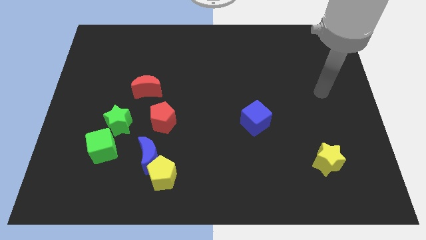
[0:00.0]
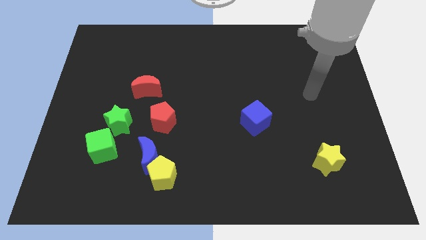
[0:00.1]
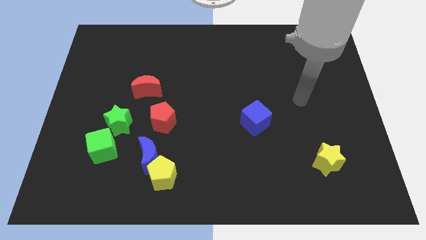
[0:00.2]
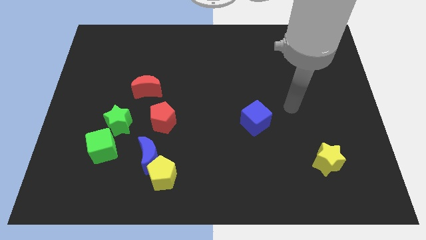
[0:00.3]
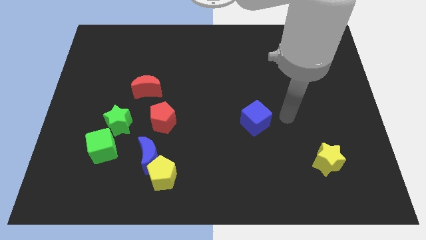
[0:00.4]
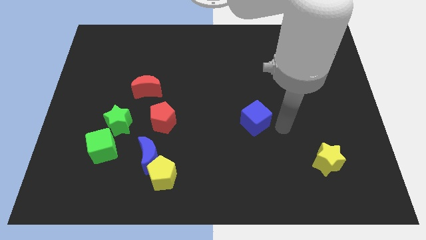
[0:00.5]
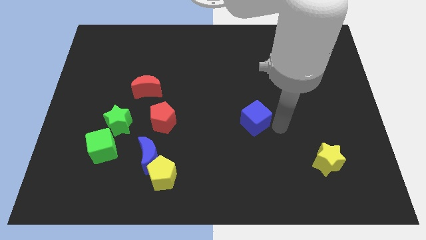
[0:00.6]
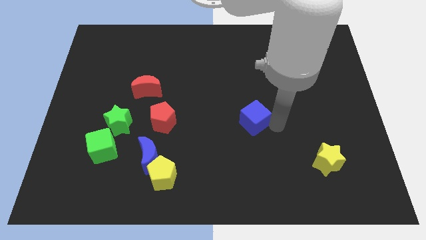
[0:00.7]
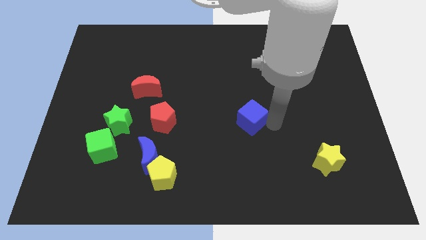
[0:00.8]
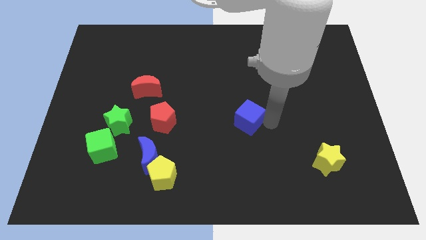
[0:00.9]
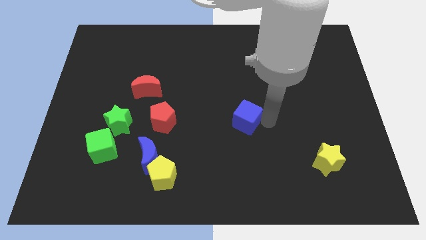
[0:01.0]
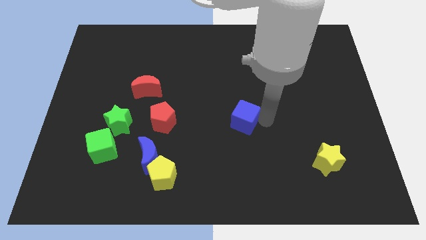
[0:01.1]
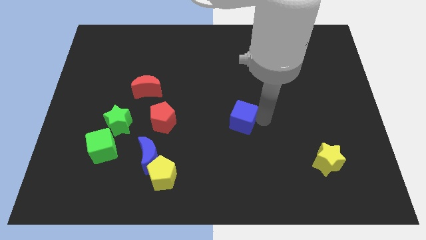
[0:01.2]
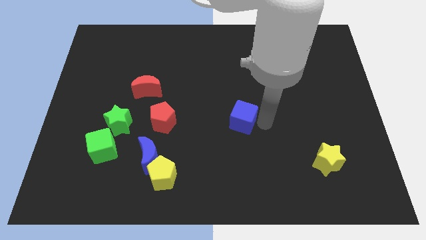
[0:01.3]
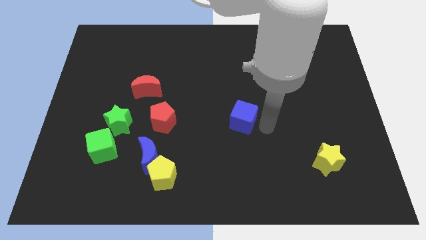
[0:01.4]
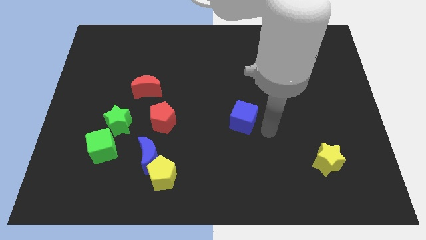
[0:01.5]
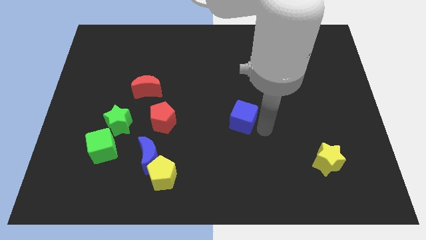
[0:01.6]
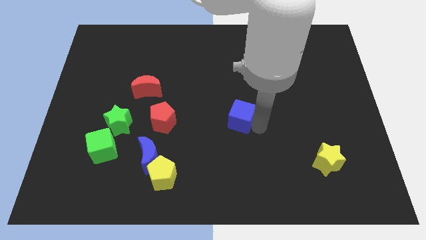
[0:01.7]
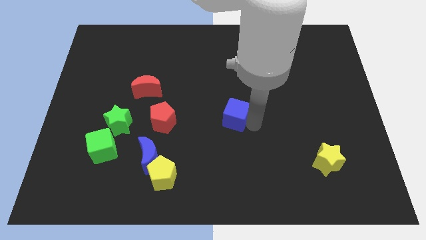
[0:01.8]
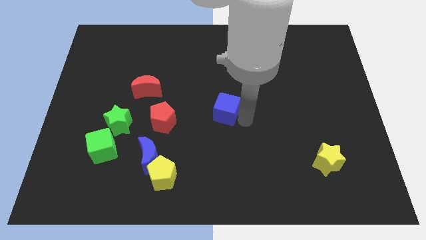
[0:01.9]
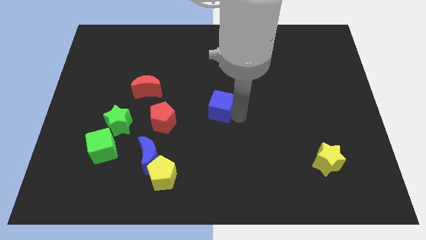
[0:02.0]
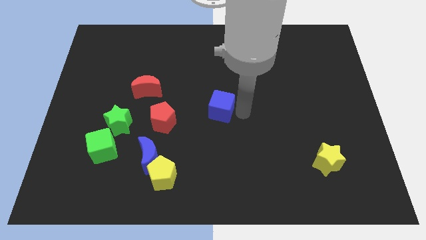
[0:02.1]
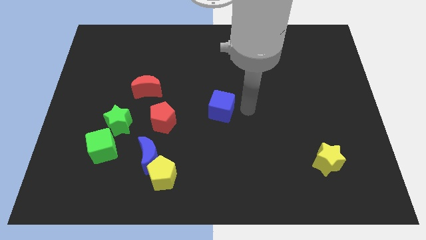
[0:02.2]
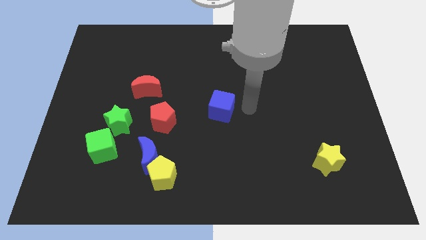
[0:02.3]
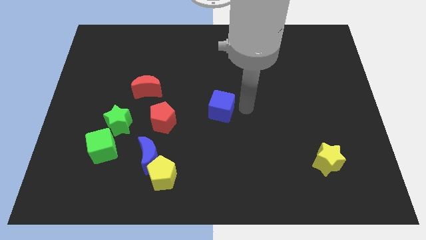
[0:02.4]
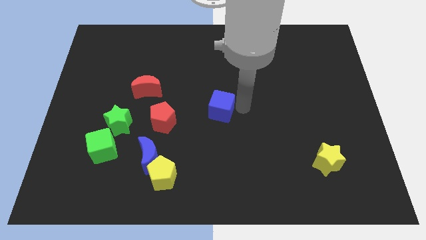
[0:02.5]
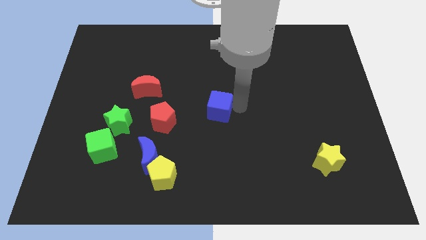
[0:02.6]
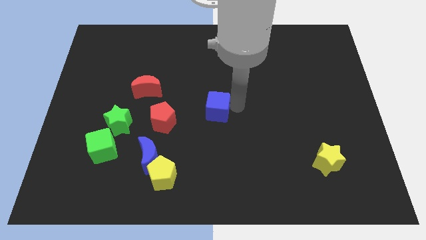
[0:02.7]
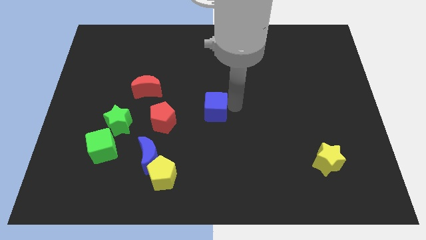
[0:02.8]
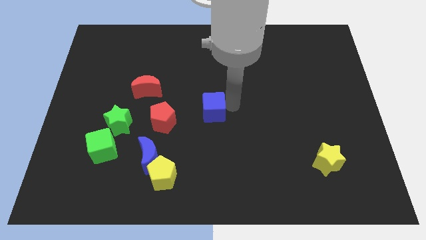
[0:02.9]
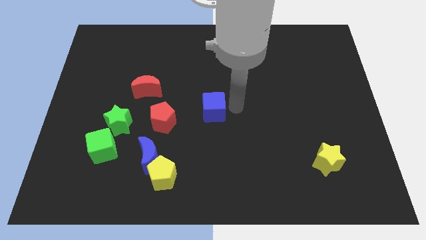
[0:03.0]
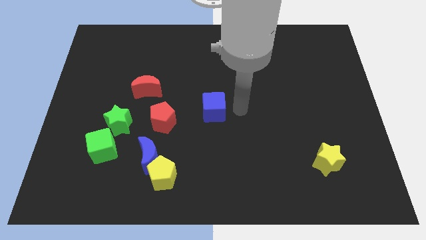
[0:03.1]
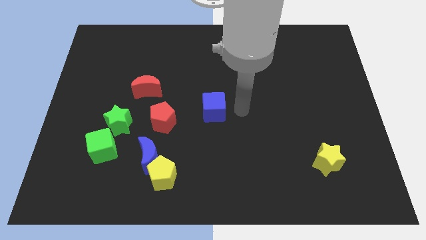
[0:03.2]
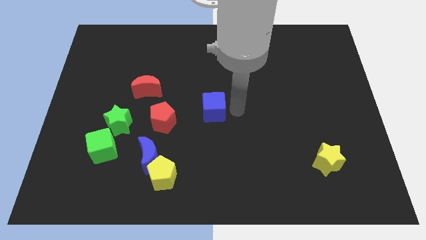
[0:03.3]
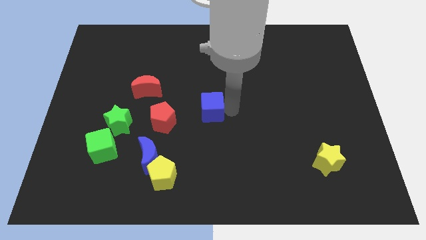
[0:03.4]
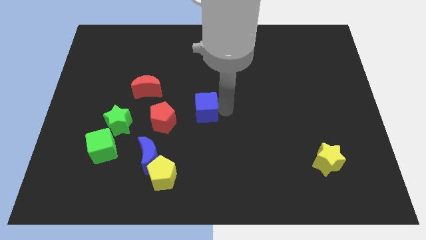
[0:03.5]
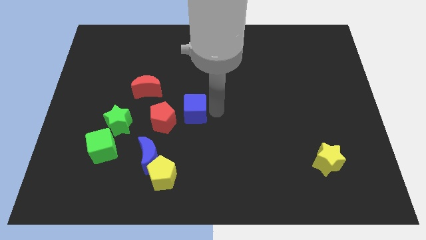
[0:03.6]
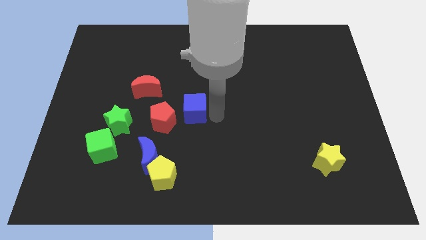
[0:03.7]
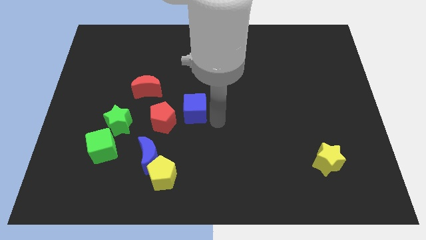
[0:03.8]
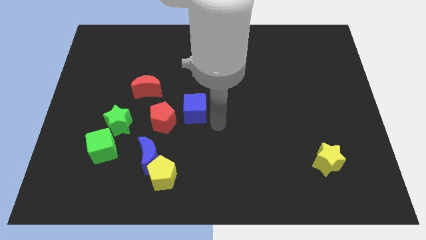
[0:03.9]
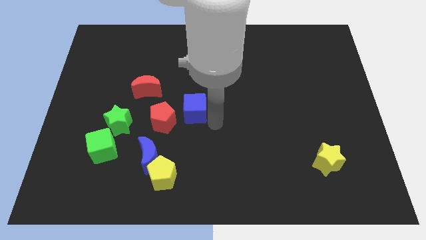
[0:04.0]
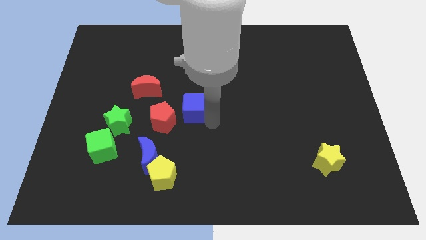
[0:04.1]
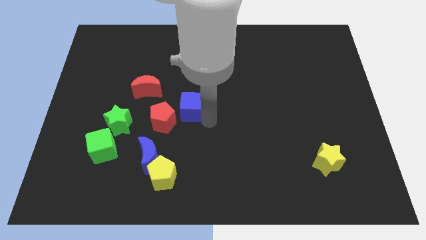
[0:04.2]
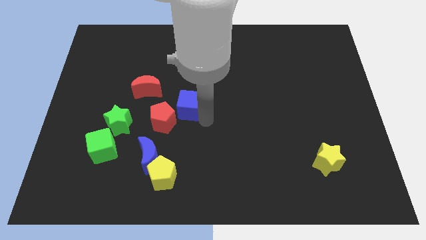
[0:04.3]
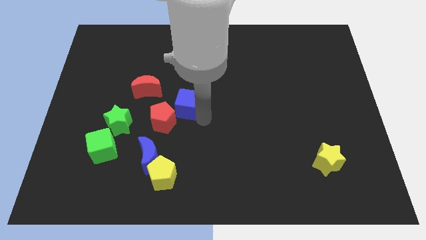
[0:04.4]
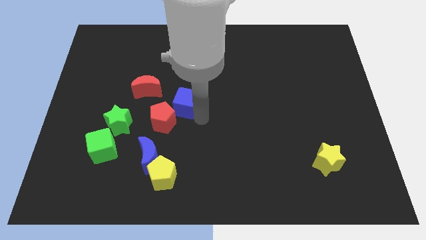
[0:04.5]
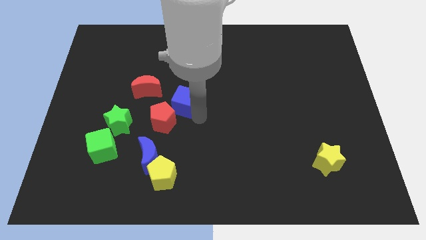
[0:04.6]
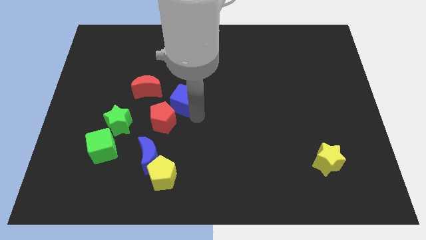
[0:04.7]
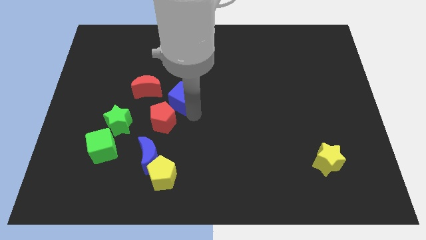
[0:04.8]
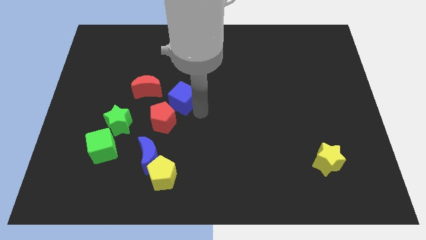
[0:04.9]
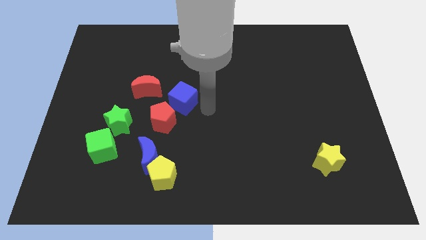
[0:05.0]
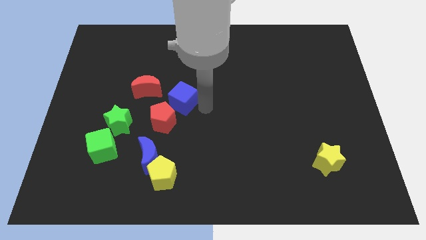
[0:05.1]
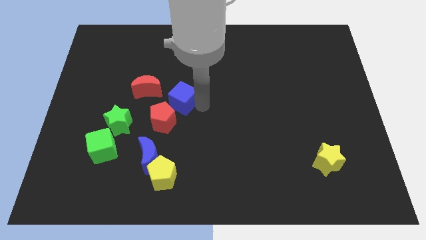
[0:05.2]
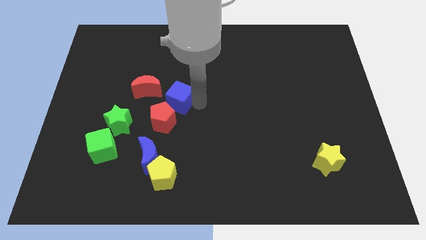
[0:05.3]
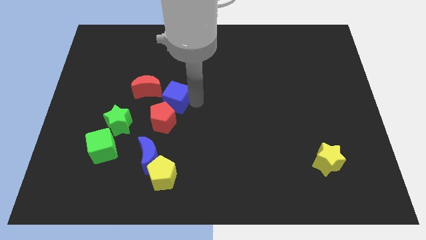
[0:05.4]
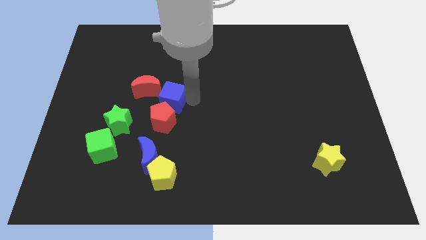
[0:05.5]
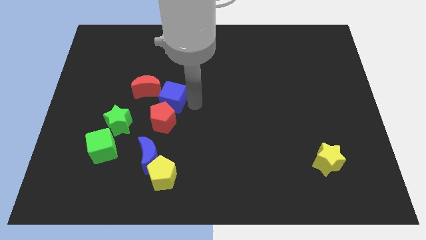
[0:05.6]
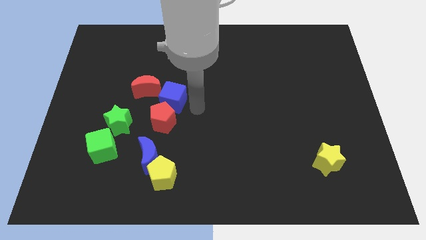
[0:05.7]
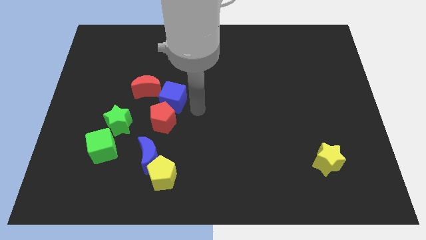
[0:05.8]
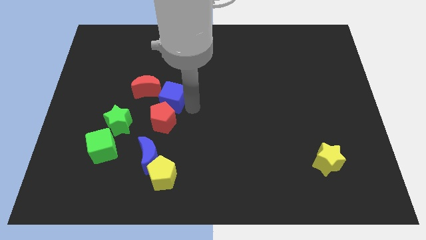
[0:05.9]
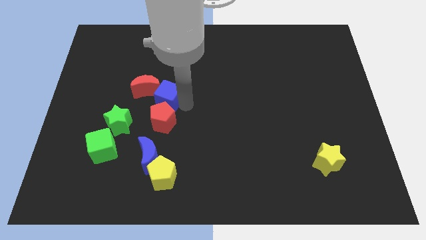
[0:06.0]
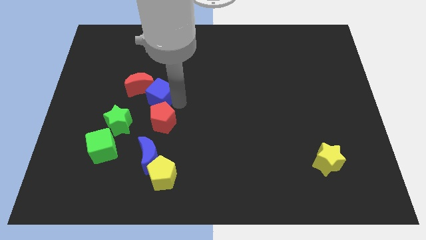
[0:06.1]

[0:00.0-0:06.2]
put the blue cube next to the red moon
